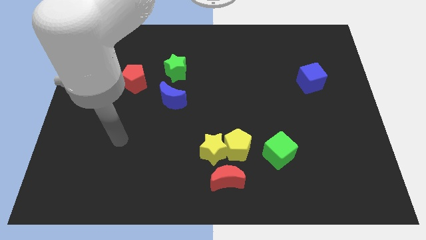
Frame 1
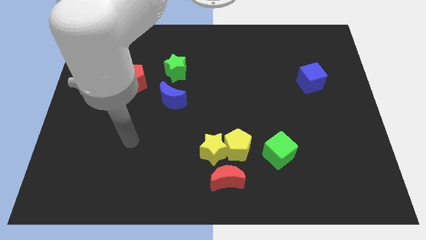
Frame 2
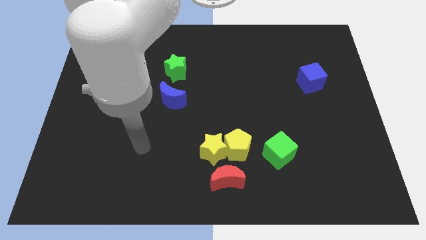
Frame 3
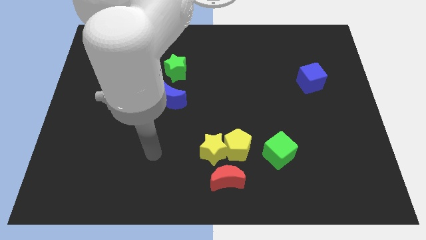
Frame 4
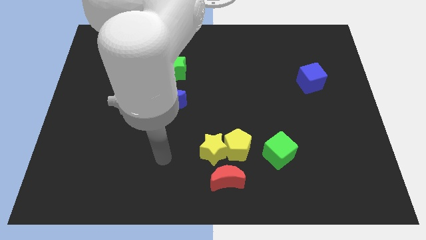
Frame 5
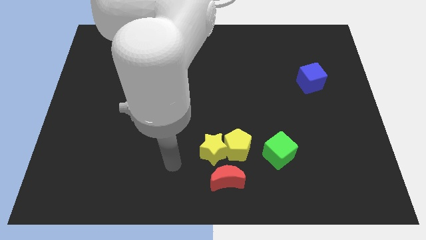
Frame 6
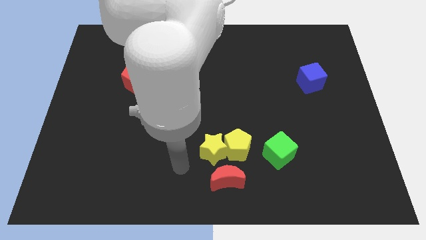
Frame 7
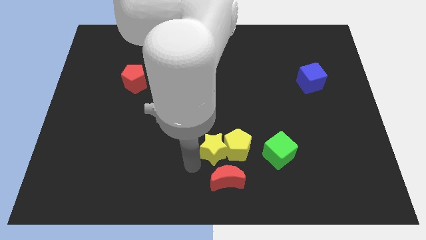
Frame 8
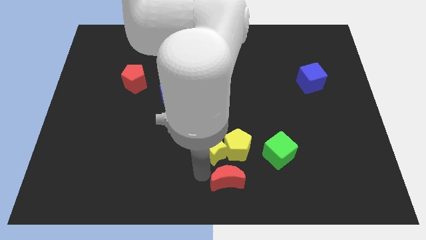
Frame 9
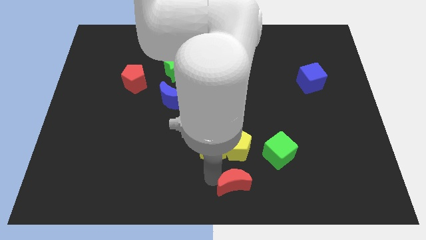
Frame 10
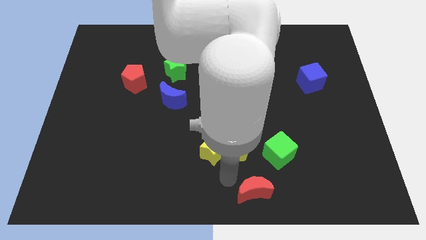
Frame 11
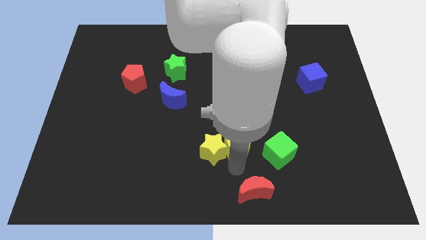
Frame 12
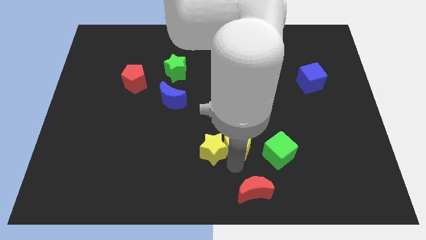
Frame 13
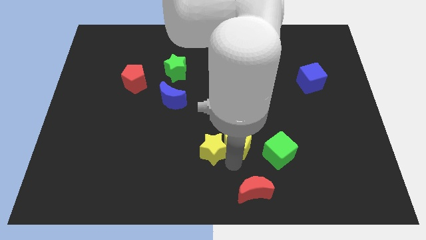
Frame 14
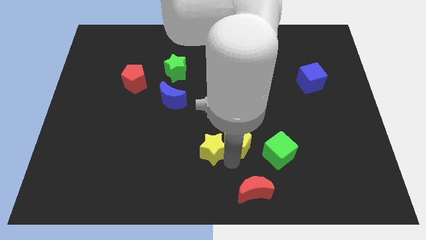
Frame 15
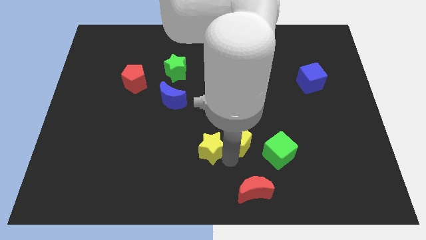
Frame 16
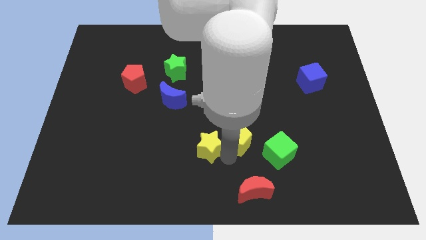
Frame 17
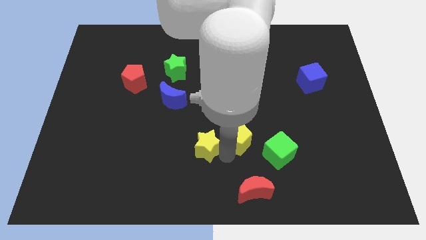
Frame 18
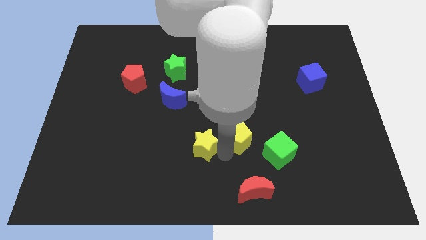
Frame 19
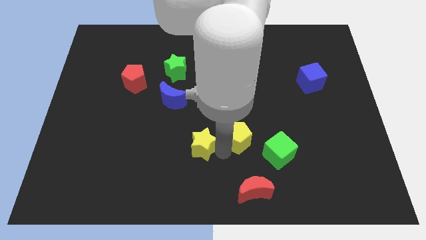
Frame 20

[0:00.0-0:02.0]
move the yellow star away from the yellow pentagon and red moon

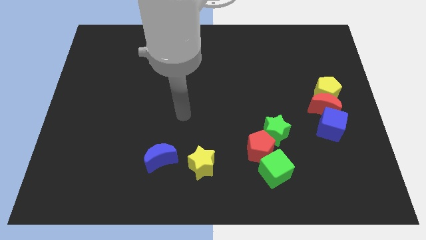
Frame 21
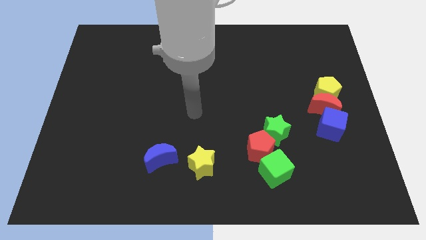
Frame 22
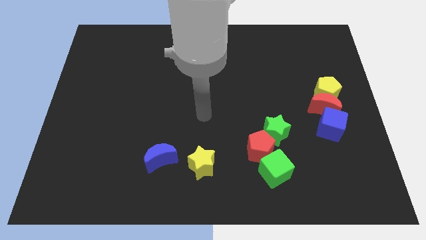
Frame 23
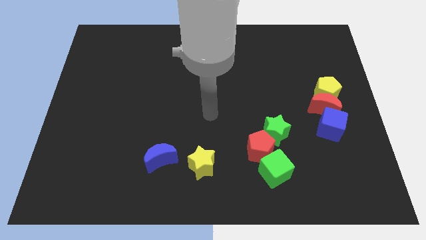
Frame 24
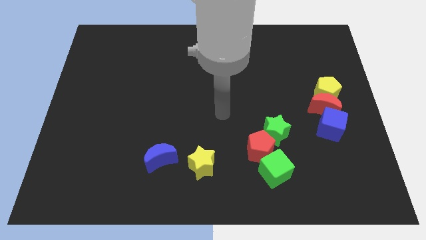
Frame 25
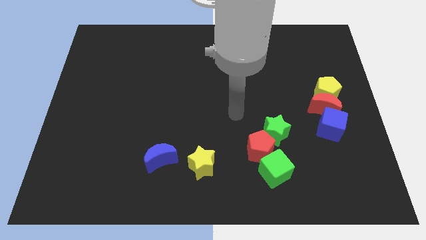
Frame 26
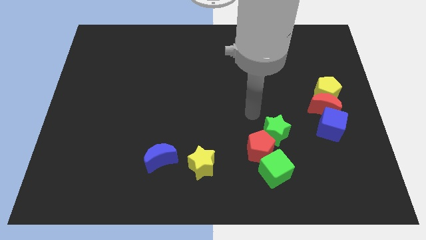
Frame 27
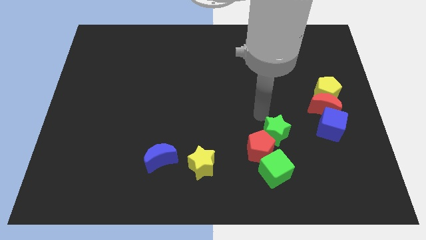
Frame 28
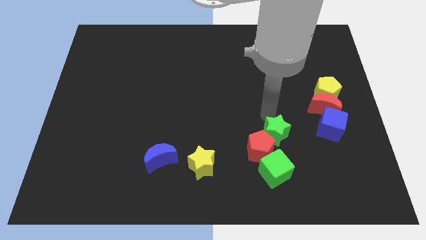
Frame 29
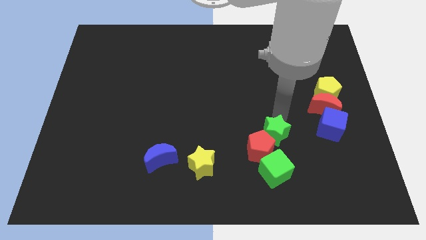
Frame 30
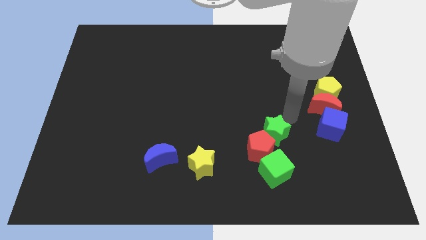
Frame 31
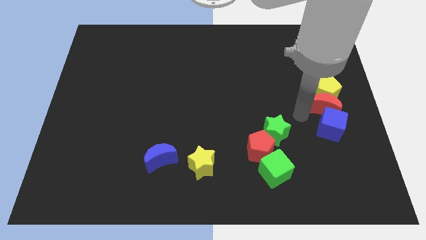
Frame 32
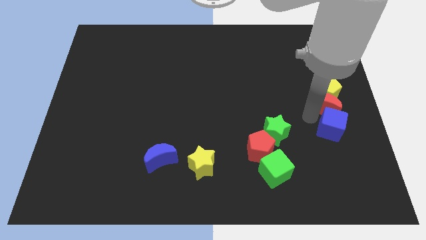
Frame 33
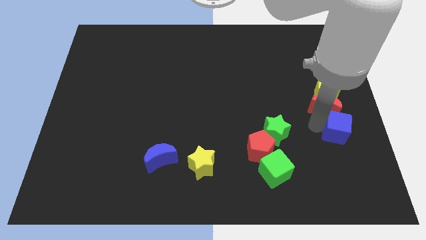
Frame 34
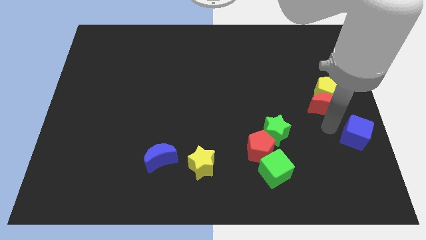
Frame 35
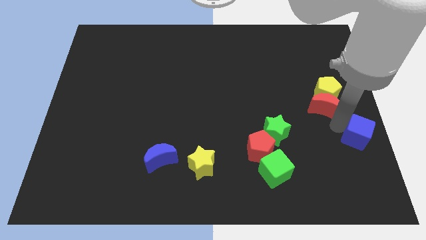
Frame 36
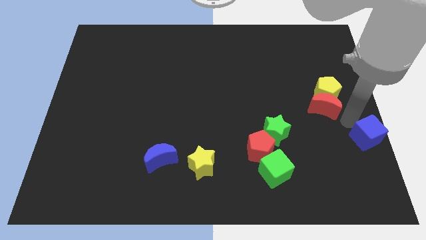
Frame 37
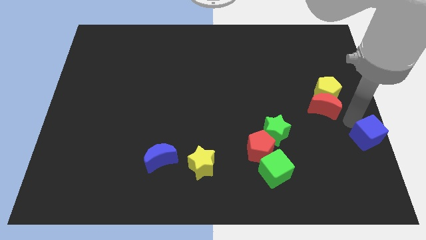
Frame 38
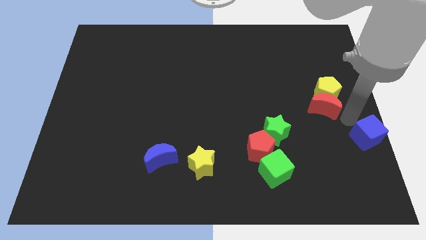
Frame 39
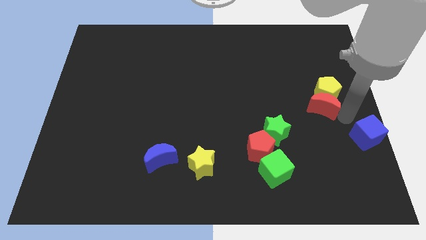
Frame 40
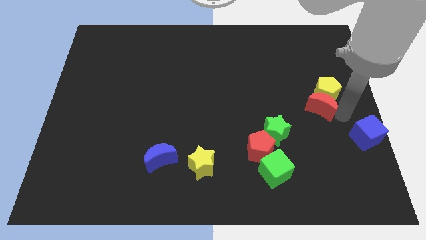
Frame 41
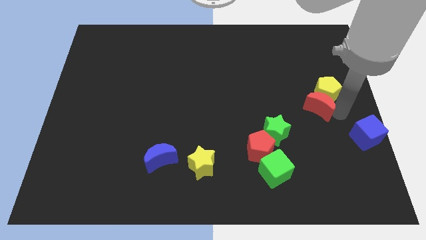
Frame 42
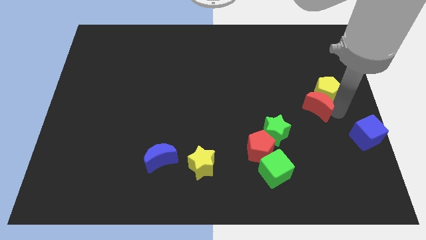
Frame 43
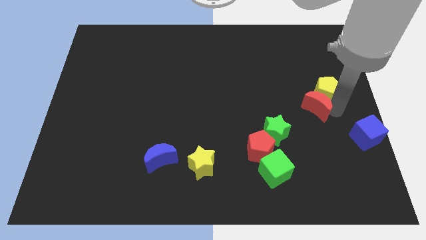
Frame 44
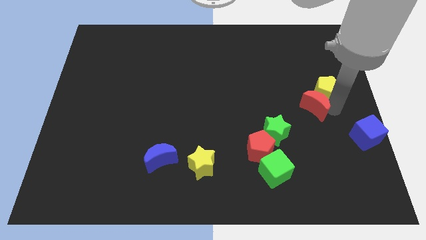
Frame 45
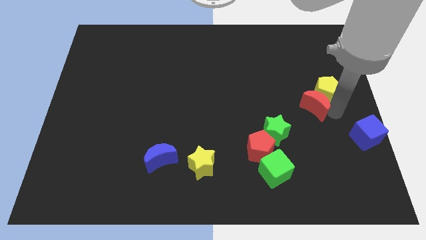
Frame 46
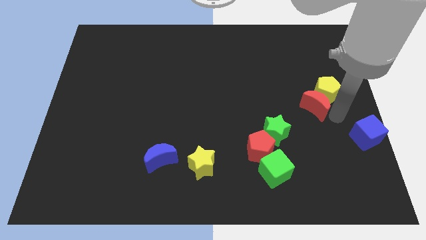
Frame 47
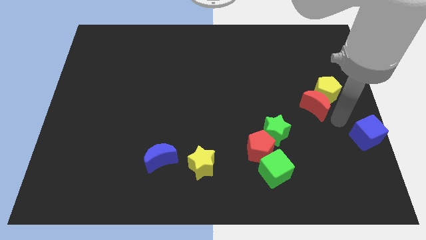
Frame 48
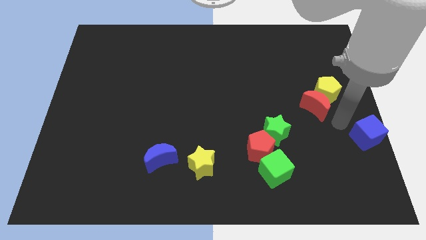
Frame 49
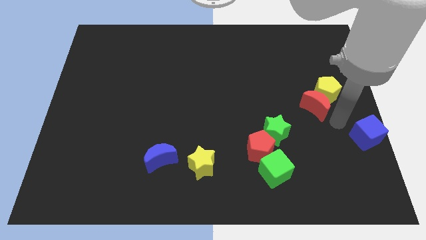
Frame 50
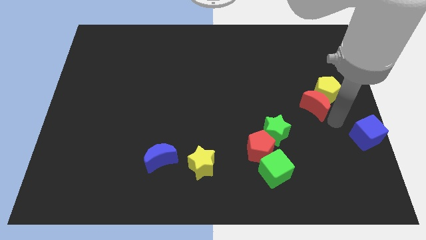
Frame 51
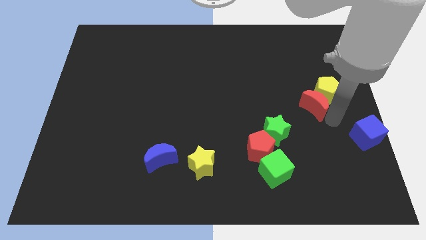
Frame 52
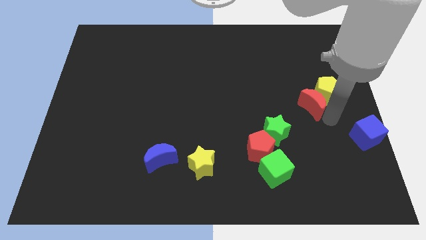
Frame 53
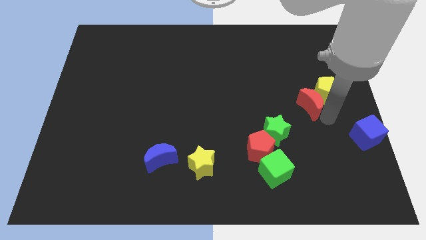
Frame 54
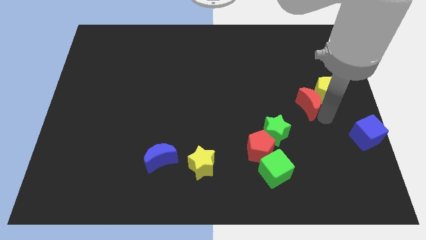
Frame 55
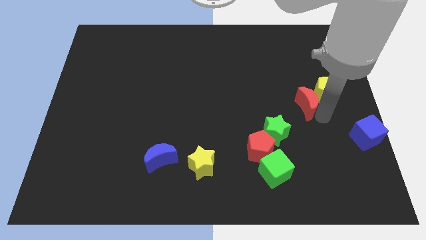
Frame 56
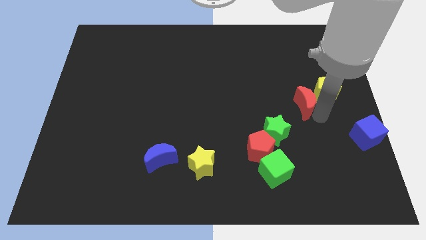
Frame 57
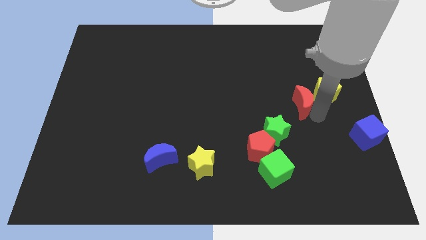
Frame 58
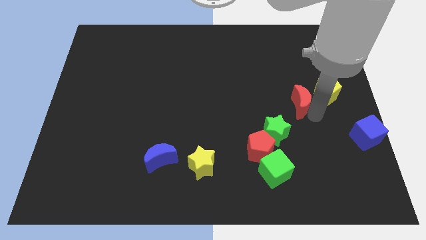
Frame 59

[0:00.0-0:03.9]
separate the red moon from the yellow pentagon and blue cube

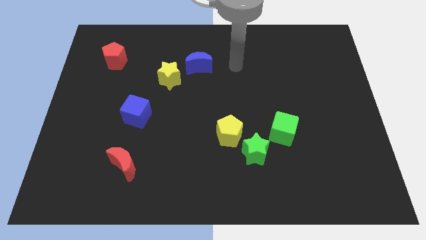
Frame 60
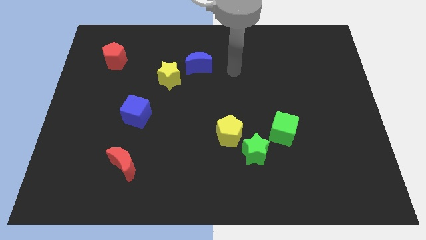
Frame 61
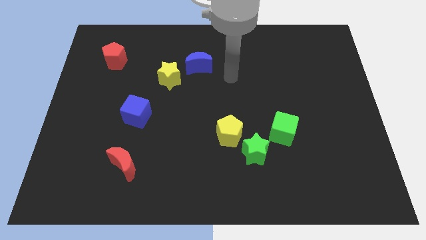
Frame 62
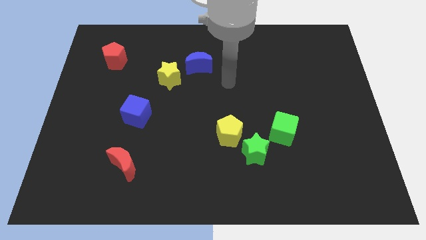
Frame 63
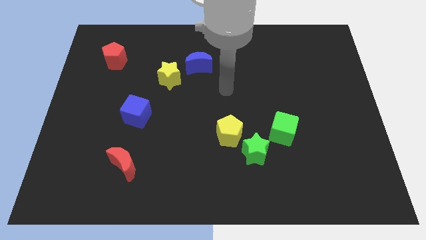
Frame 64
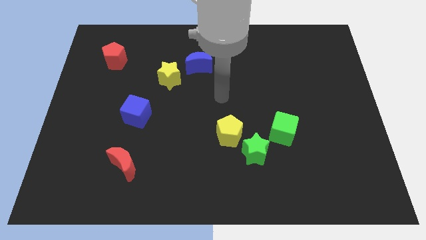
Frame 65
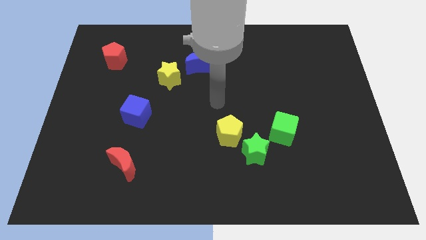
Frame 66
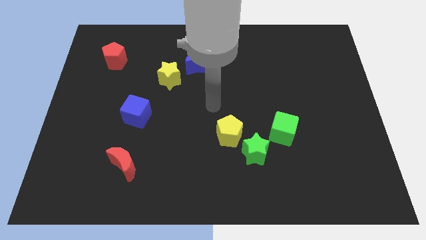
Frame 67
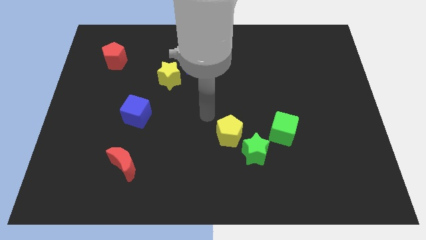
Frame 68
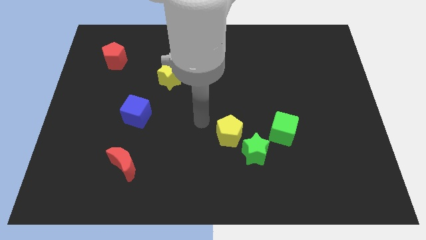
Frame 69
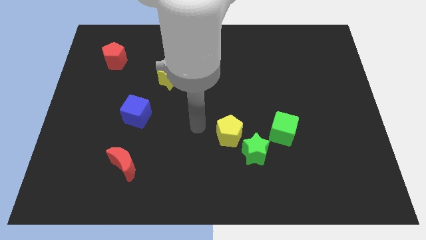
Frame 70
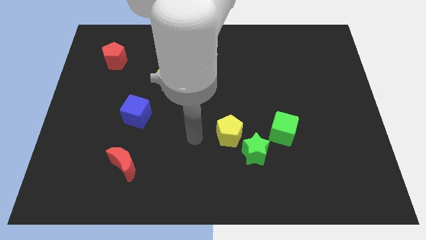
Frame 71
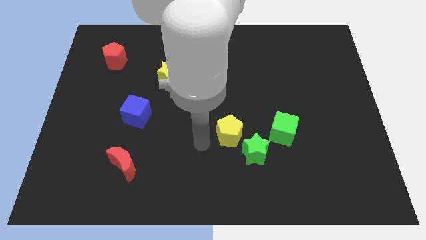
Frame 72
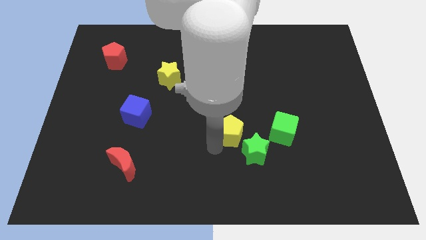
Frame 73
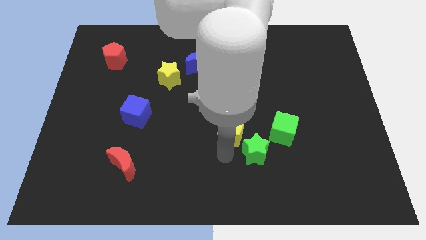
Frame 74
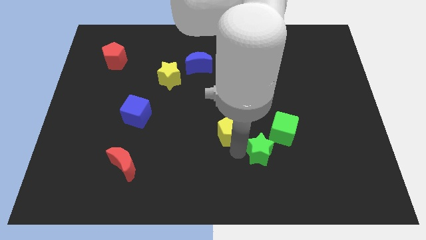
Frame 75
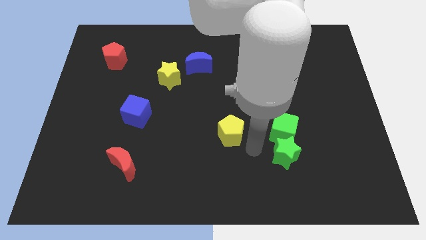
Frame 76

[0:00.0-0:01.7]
separate the yellow pentagon from the green star

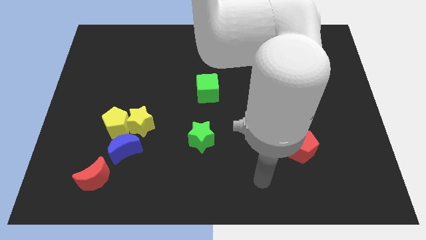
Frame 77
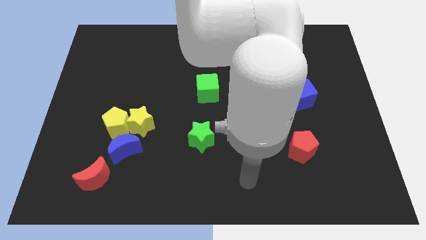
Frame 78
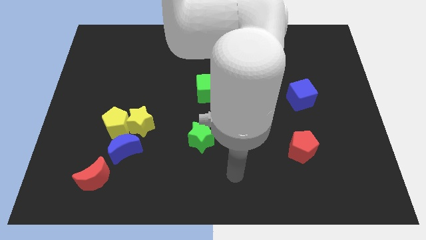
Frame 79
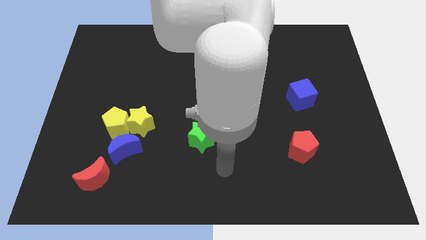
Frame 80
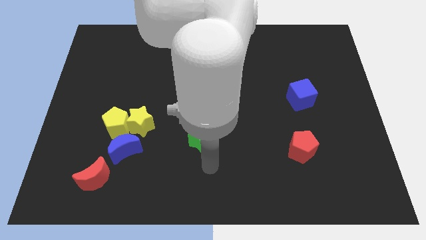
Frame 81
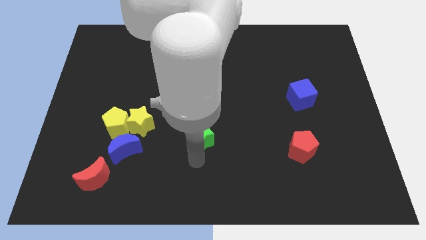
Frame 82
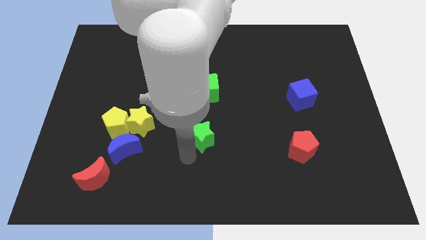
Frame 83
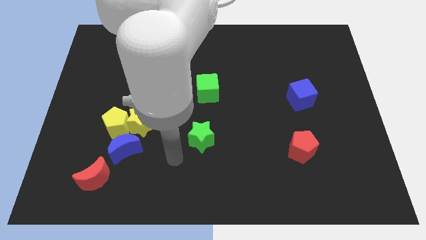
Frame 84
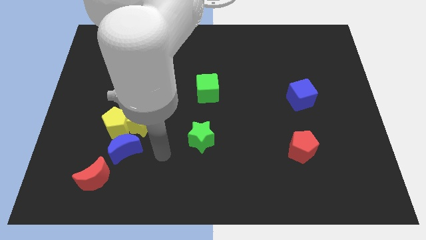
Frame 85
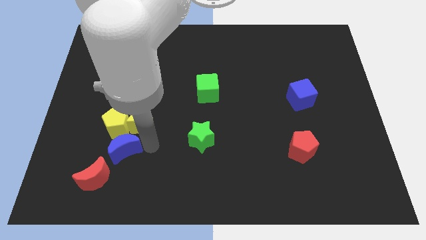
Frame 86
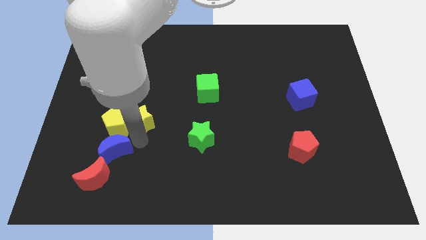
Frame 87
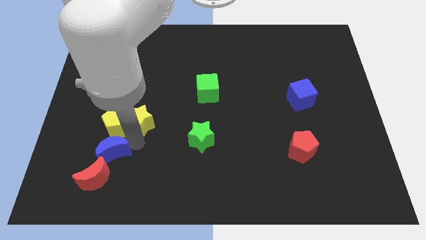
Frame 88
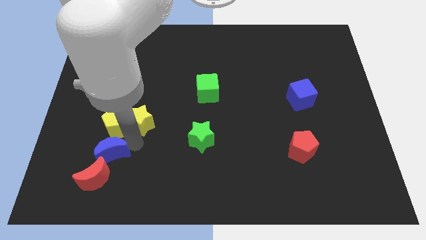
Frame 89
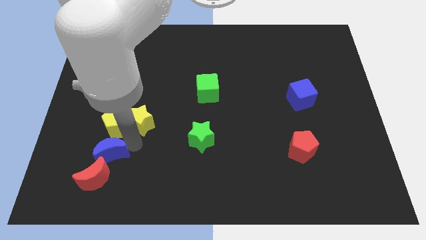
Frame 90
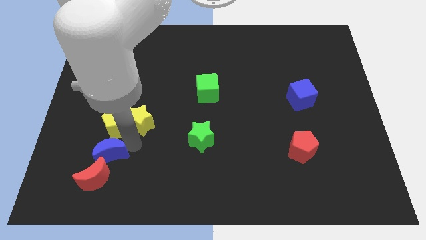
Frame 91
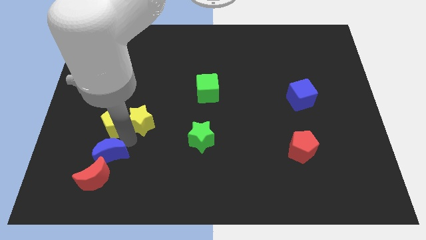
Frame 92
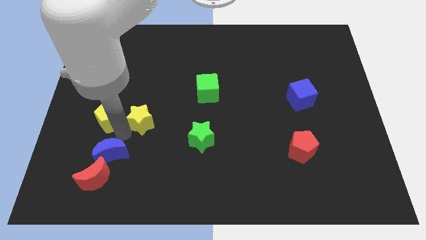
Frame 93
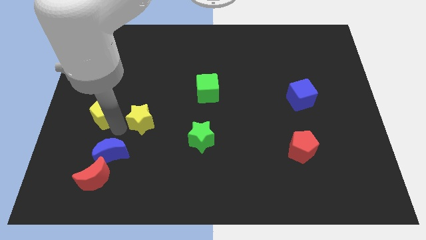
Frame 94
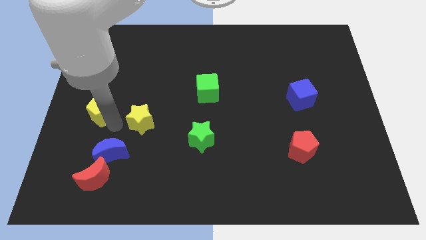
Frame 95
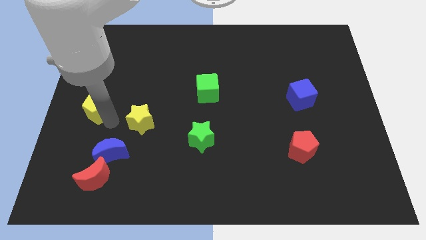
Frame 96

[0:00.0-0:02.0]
separate the yellow pentagon from the yellow star and blue moon
